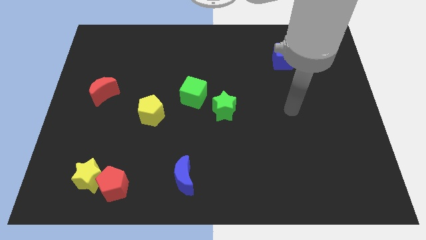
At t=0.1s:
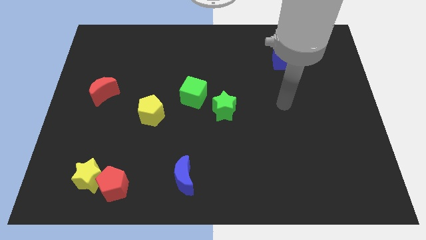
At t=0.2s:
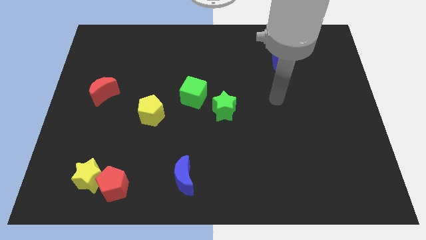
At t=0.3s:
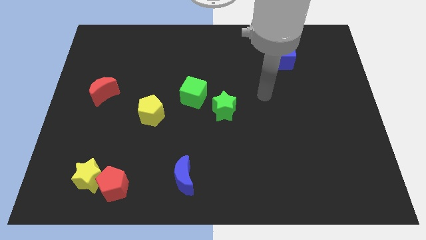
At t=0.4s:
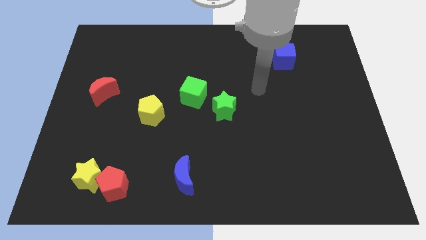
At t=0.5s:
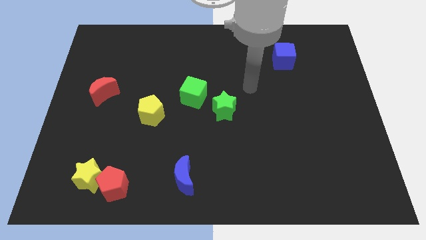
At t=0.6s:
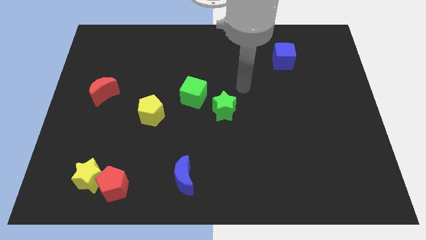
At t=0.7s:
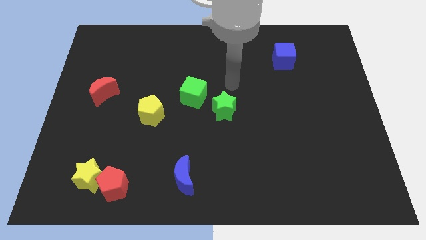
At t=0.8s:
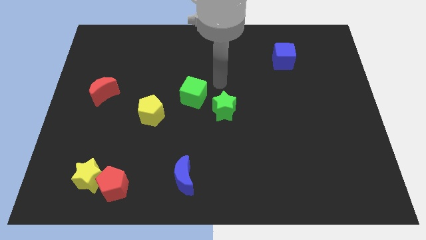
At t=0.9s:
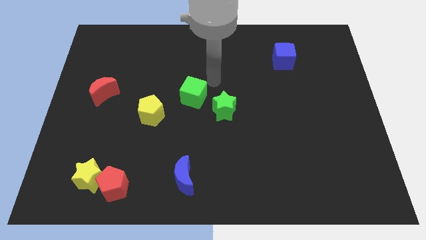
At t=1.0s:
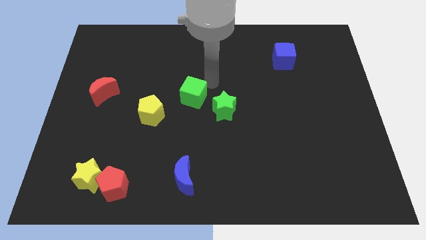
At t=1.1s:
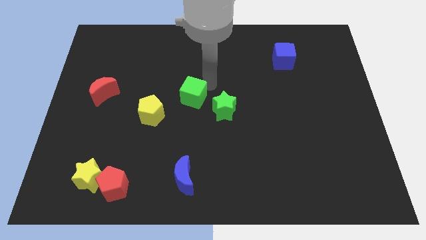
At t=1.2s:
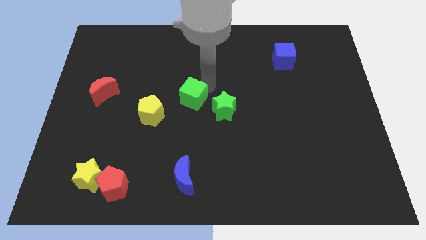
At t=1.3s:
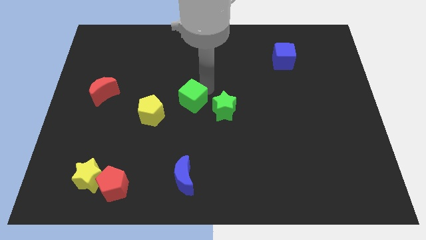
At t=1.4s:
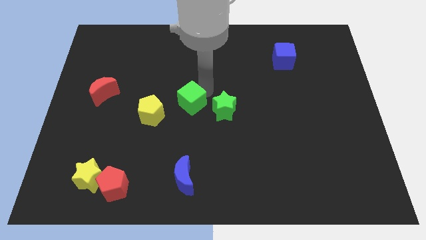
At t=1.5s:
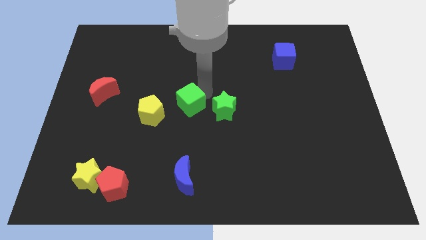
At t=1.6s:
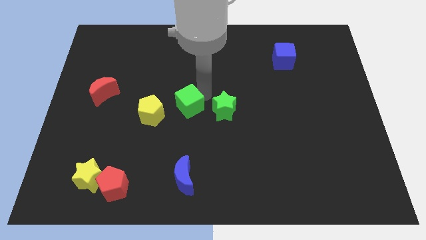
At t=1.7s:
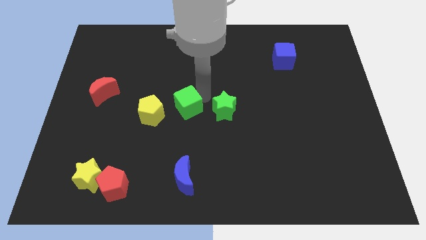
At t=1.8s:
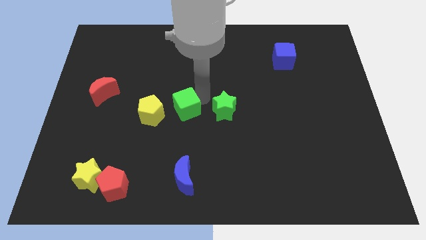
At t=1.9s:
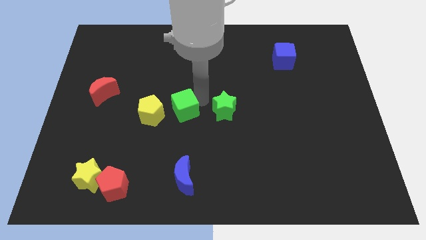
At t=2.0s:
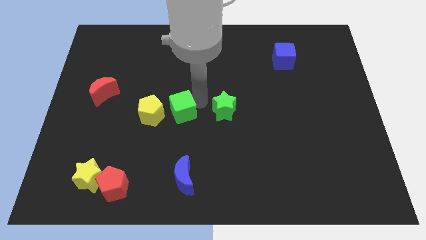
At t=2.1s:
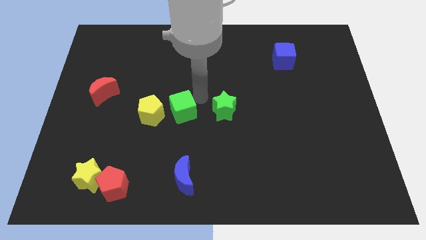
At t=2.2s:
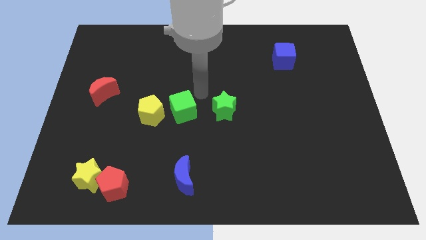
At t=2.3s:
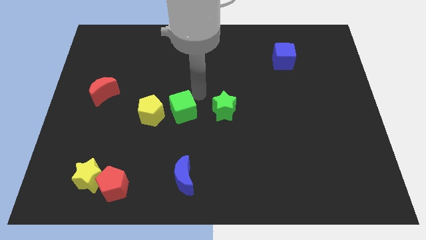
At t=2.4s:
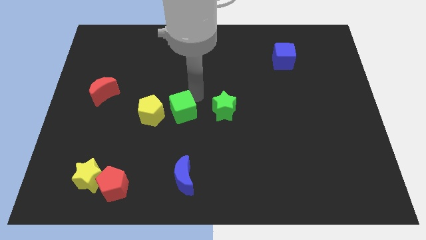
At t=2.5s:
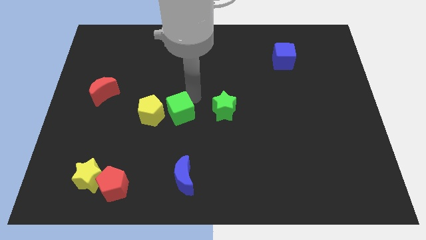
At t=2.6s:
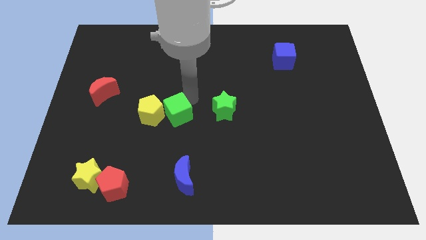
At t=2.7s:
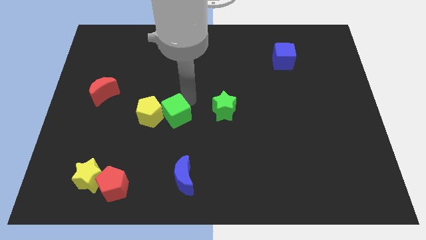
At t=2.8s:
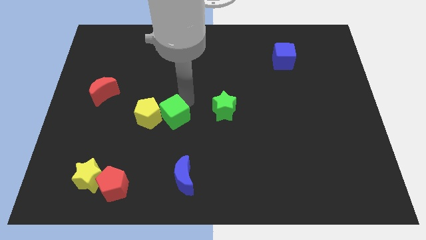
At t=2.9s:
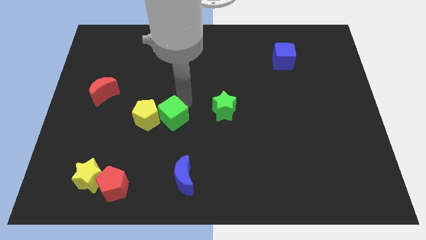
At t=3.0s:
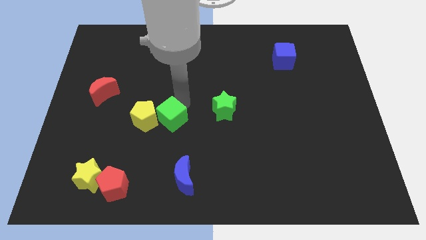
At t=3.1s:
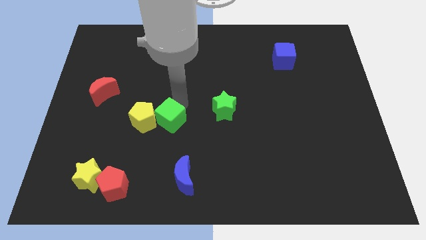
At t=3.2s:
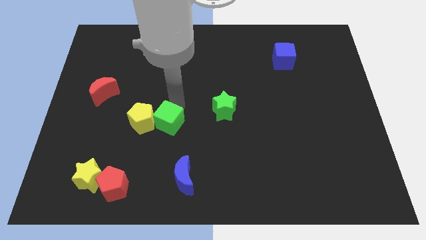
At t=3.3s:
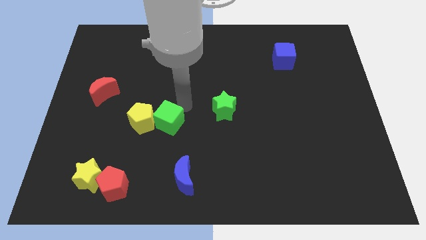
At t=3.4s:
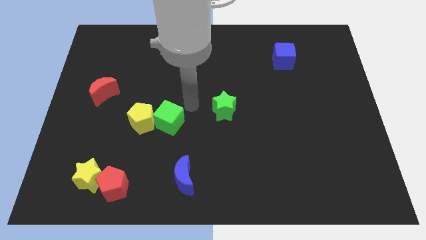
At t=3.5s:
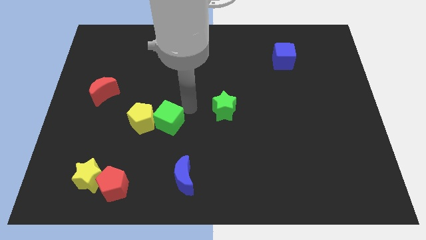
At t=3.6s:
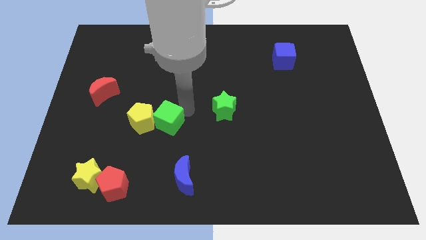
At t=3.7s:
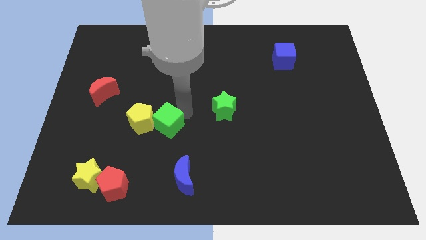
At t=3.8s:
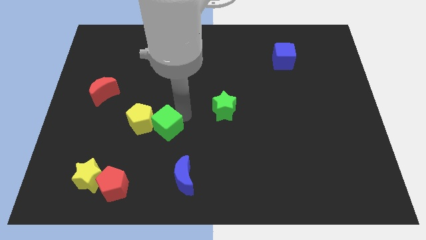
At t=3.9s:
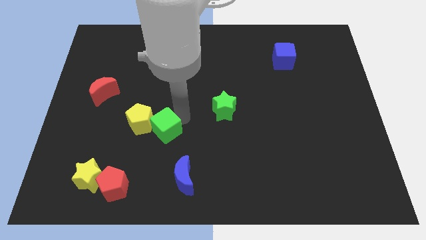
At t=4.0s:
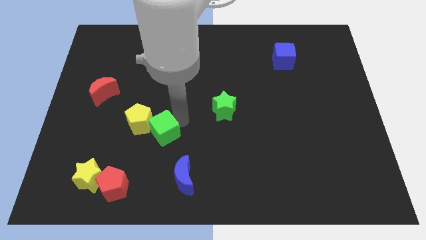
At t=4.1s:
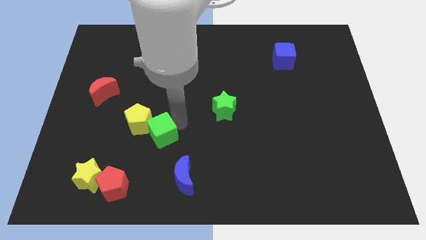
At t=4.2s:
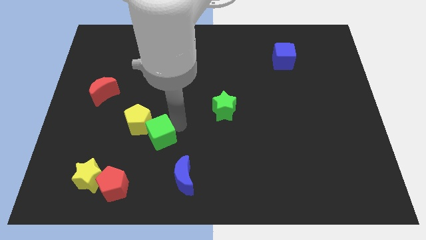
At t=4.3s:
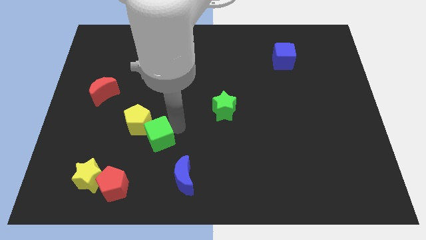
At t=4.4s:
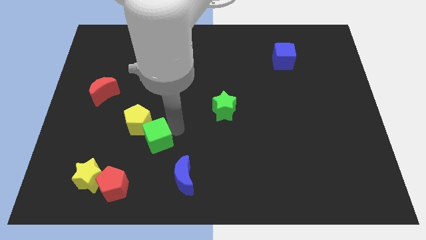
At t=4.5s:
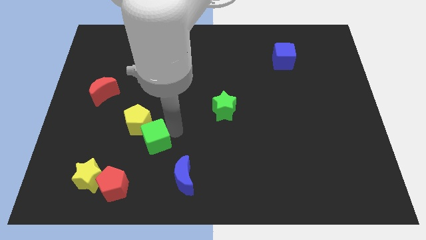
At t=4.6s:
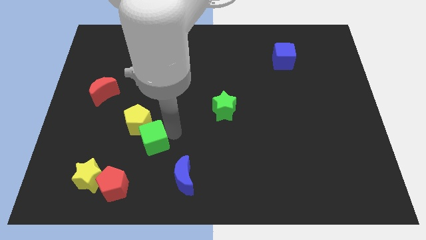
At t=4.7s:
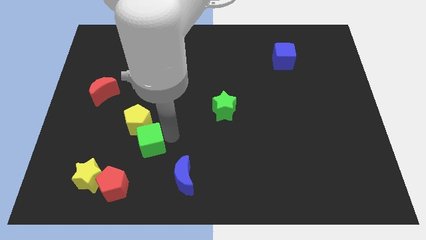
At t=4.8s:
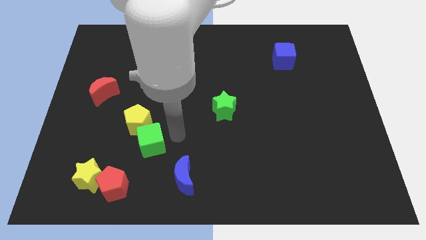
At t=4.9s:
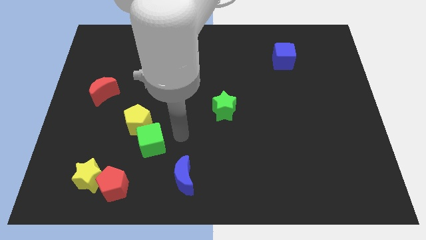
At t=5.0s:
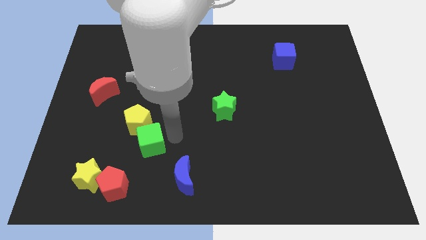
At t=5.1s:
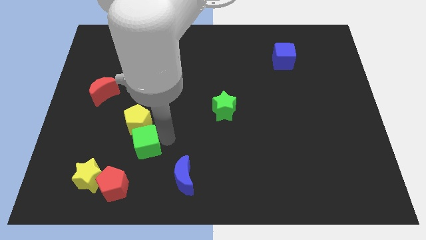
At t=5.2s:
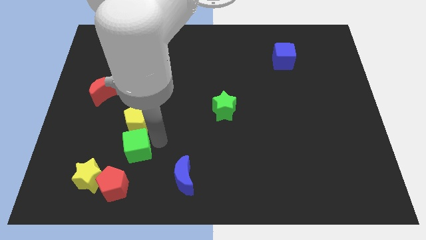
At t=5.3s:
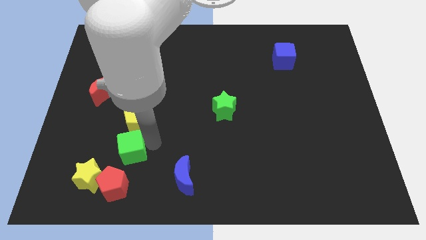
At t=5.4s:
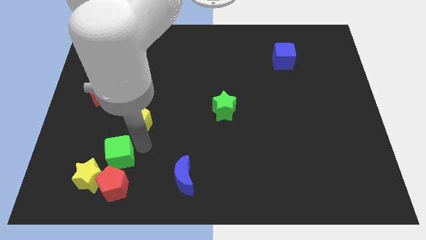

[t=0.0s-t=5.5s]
push the green cube diagonally up and to the left of the red pentagon

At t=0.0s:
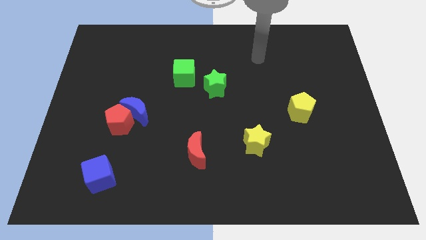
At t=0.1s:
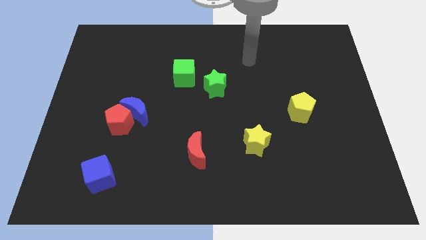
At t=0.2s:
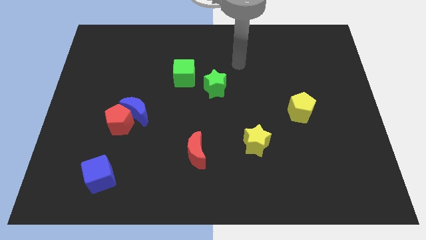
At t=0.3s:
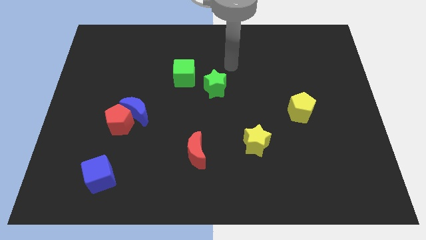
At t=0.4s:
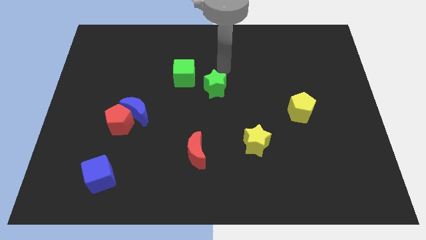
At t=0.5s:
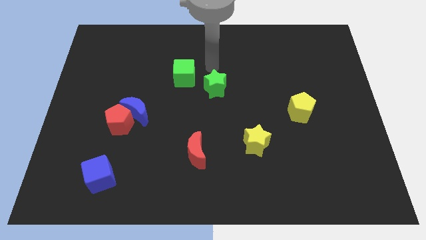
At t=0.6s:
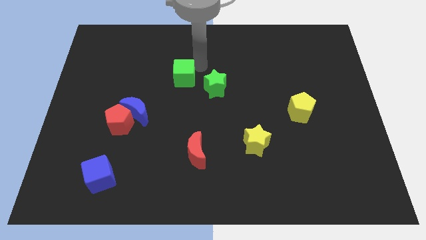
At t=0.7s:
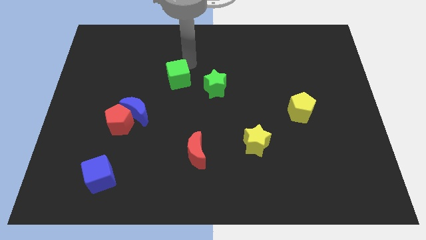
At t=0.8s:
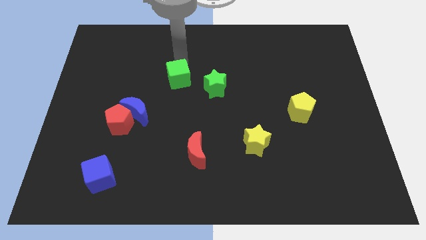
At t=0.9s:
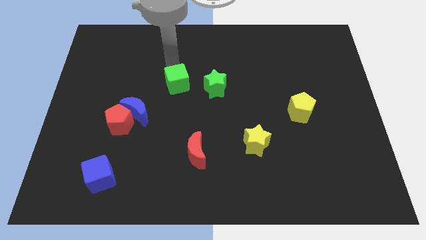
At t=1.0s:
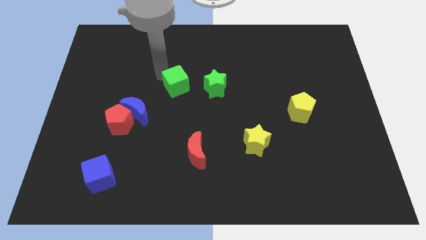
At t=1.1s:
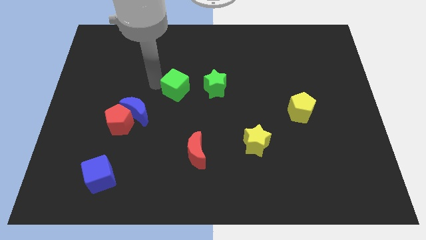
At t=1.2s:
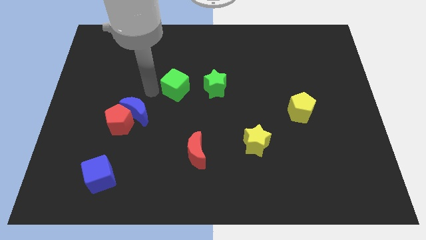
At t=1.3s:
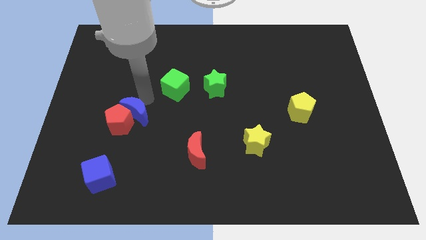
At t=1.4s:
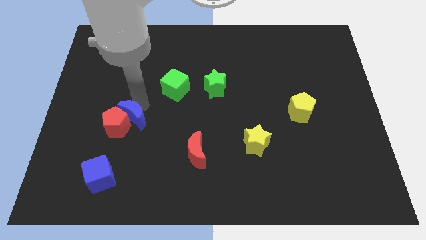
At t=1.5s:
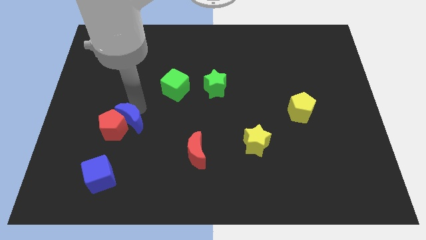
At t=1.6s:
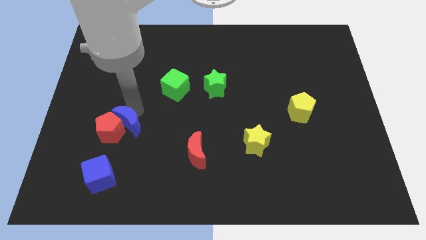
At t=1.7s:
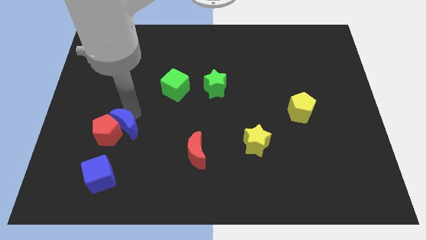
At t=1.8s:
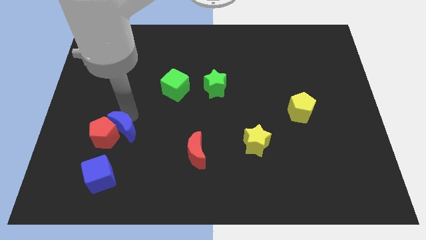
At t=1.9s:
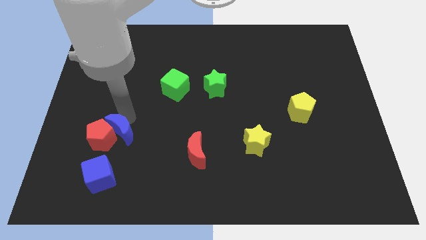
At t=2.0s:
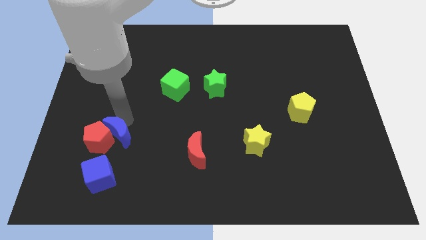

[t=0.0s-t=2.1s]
put the red pentagon to the top left of the blue cube
